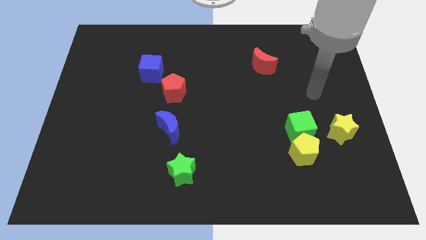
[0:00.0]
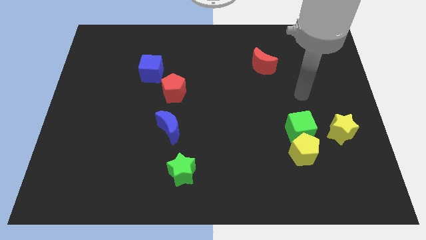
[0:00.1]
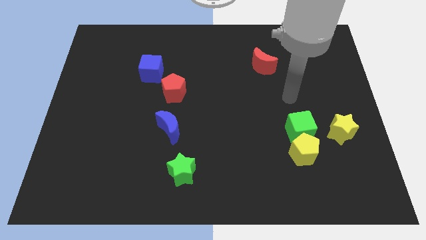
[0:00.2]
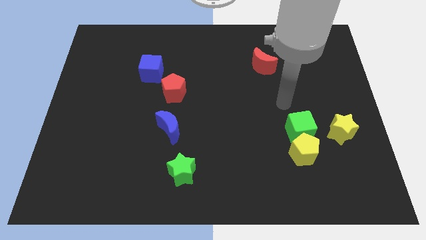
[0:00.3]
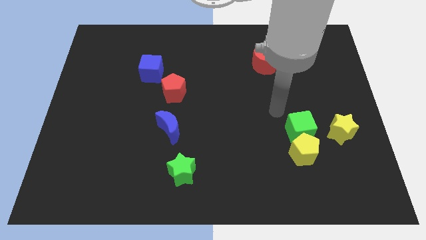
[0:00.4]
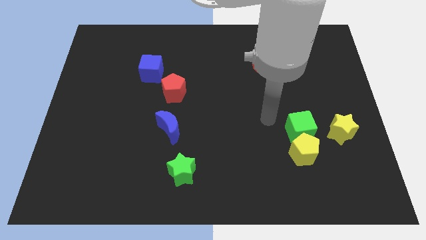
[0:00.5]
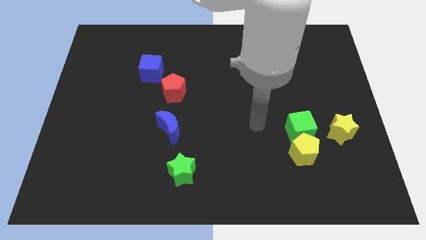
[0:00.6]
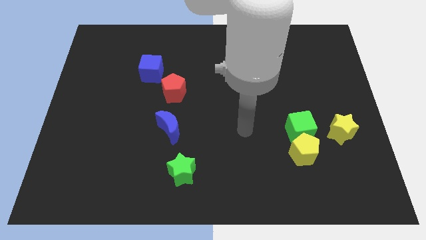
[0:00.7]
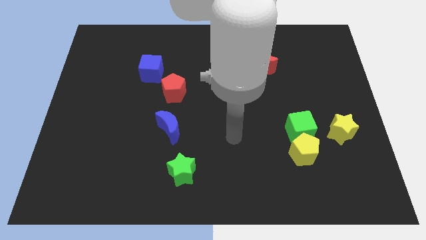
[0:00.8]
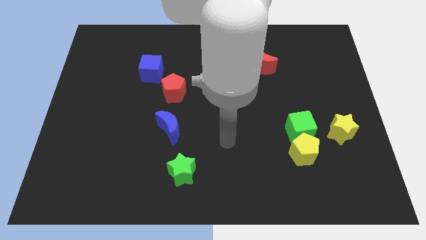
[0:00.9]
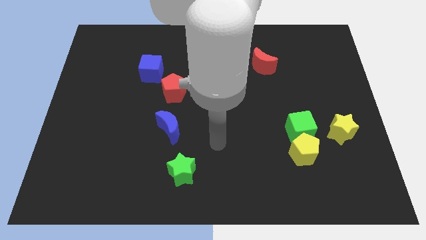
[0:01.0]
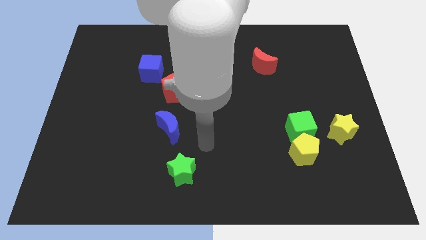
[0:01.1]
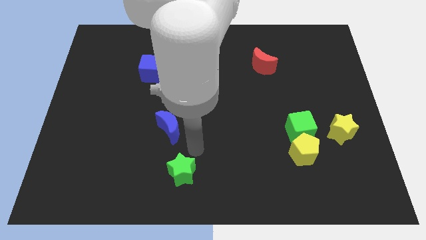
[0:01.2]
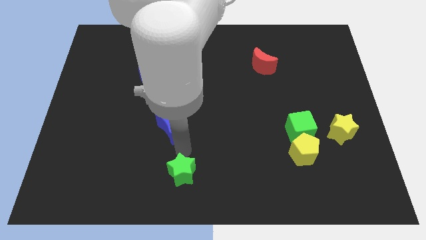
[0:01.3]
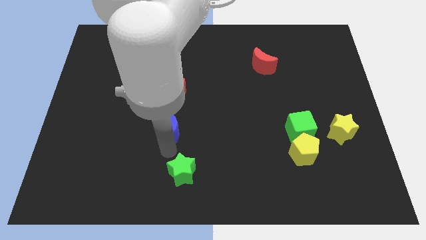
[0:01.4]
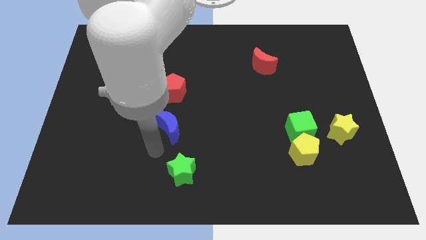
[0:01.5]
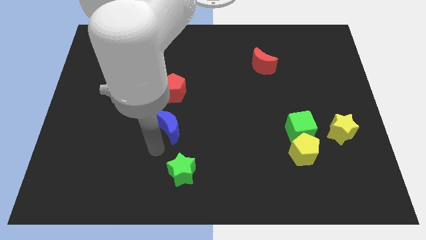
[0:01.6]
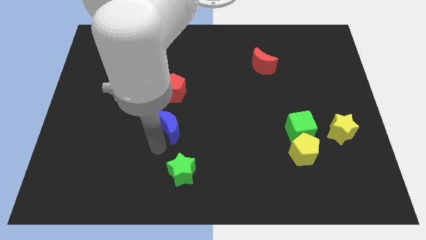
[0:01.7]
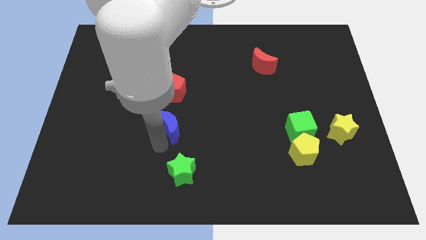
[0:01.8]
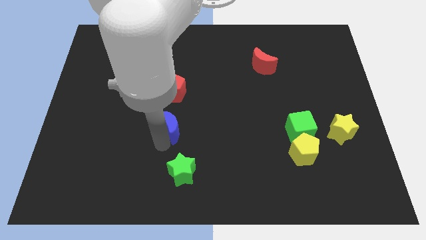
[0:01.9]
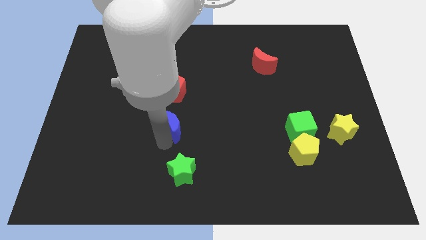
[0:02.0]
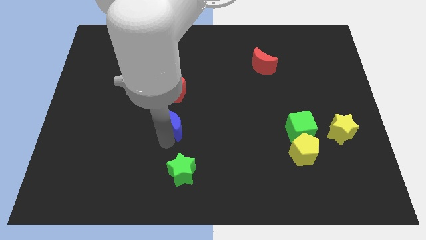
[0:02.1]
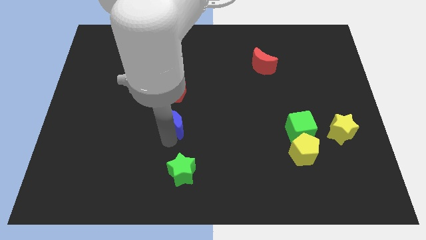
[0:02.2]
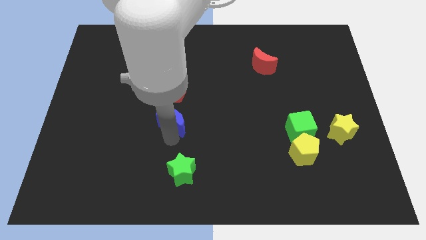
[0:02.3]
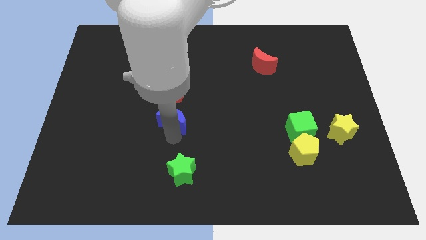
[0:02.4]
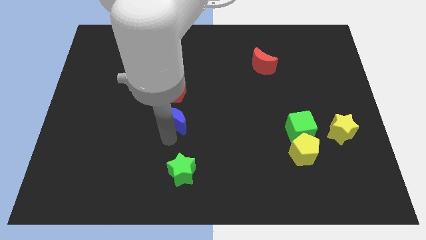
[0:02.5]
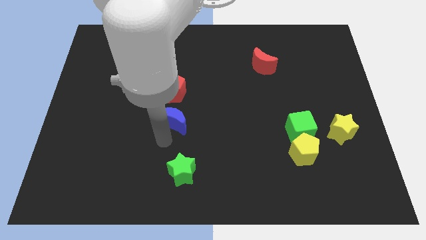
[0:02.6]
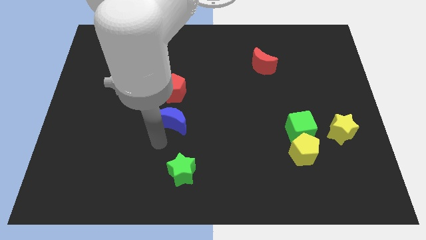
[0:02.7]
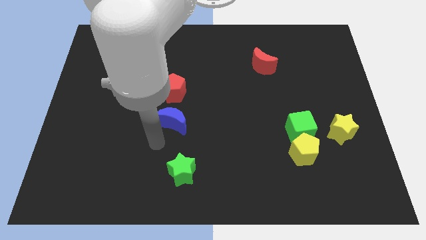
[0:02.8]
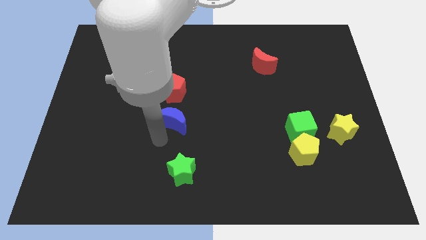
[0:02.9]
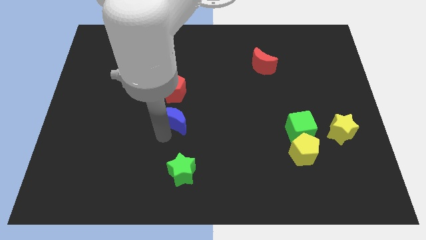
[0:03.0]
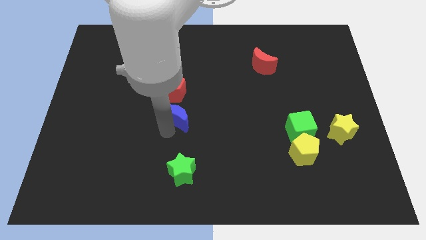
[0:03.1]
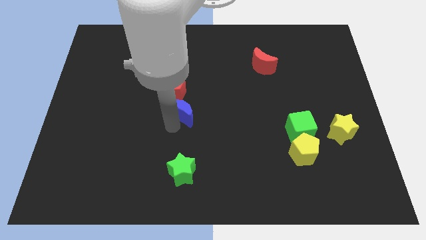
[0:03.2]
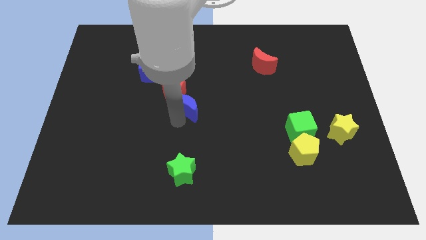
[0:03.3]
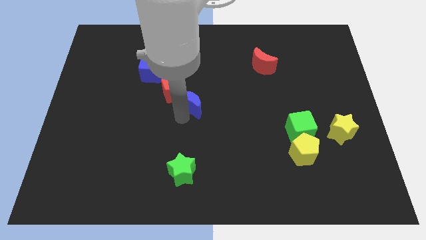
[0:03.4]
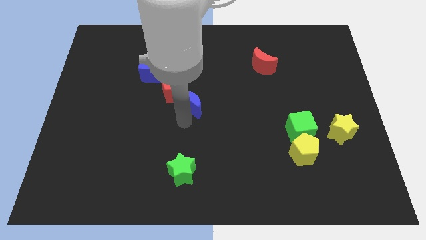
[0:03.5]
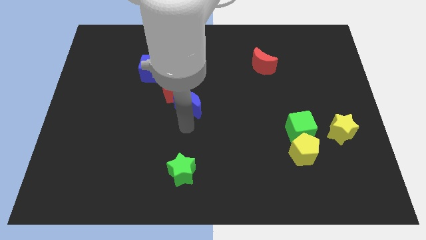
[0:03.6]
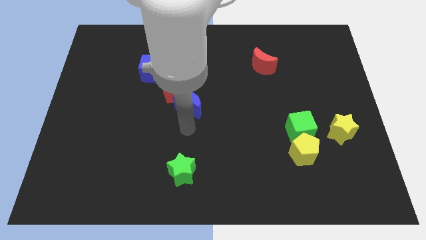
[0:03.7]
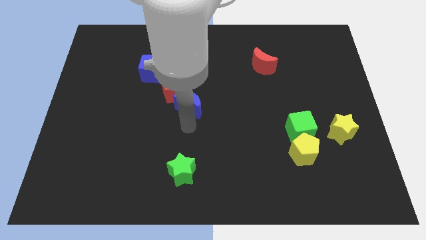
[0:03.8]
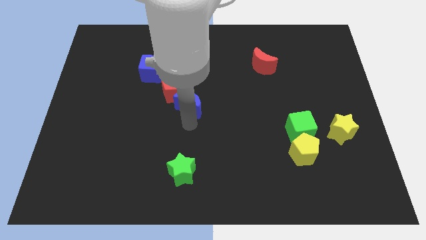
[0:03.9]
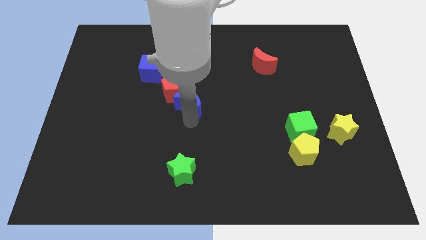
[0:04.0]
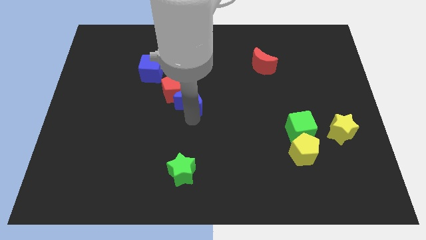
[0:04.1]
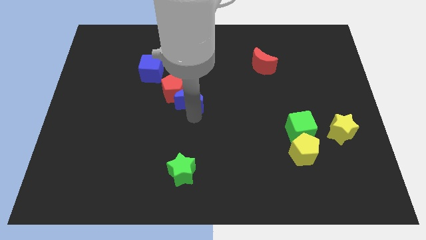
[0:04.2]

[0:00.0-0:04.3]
slide the blue moon upwards somewhat

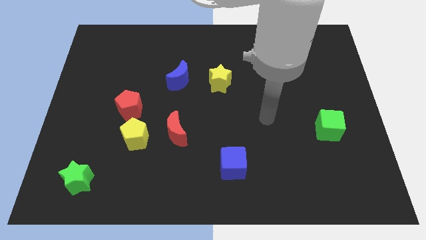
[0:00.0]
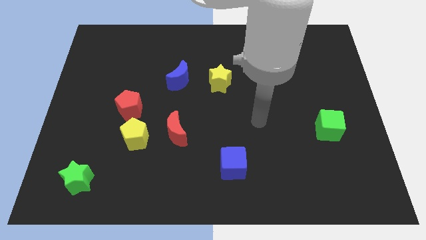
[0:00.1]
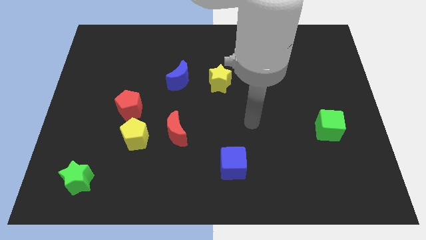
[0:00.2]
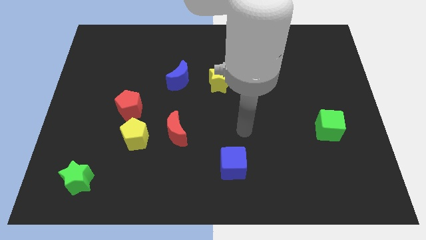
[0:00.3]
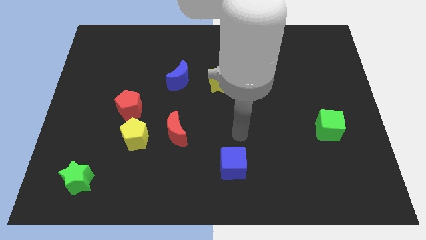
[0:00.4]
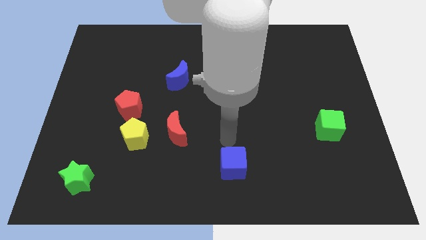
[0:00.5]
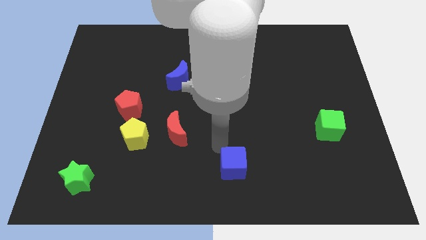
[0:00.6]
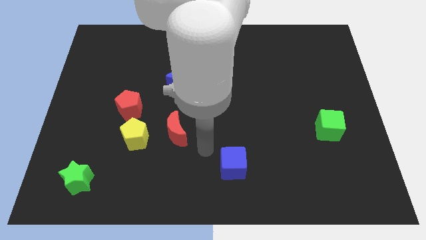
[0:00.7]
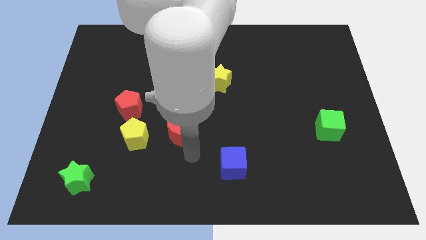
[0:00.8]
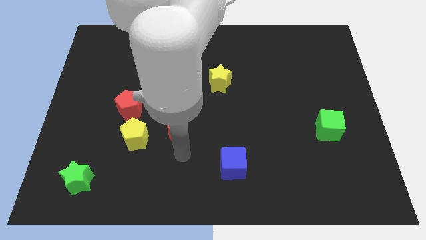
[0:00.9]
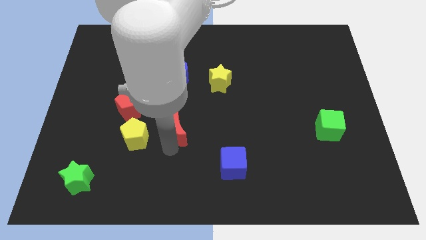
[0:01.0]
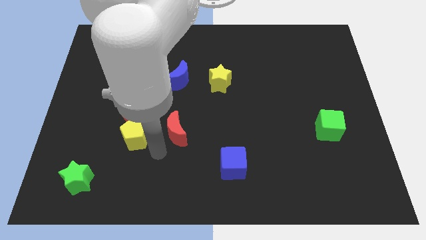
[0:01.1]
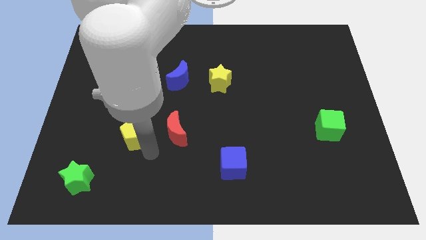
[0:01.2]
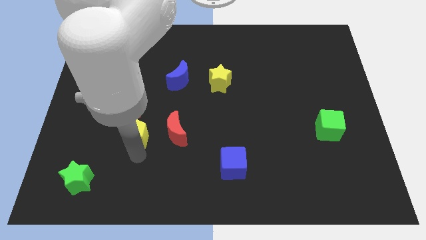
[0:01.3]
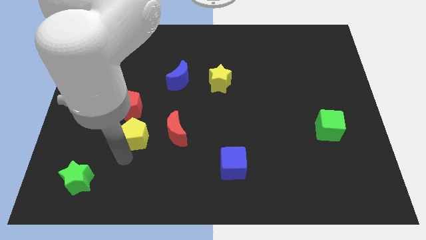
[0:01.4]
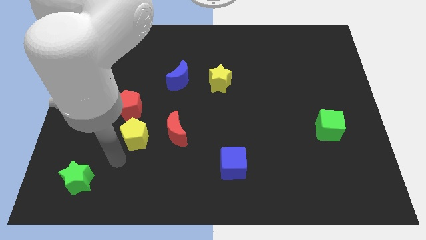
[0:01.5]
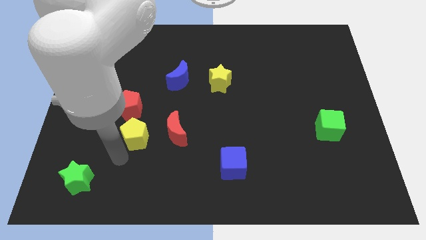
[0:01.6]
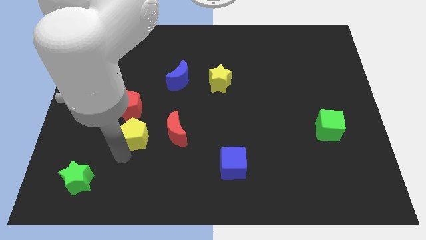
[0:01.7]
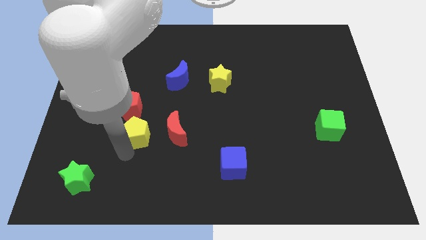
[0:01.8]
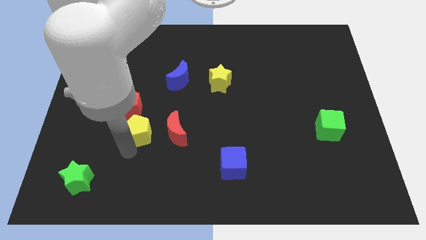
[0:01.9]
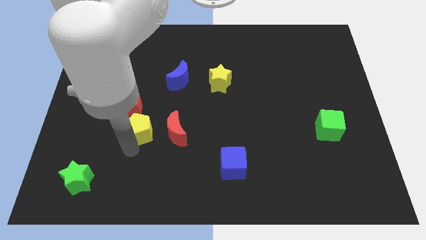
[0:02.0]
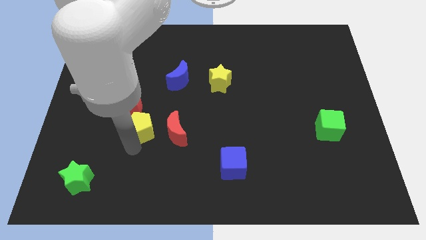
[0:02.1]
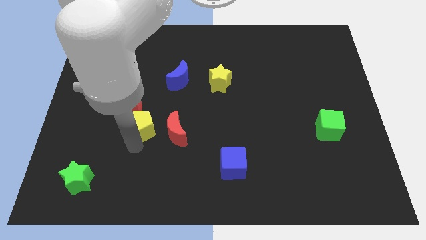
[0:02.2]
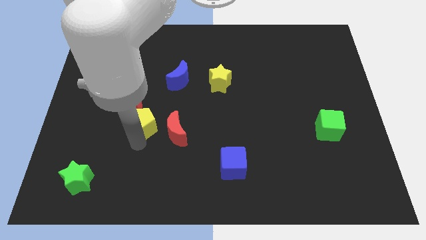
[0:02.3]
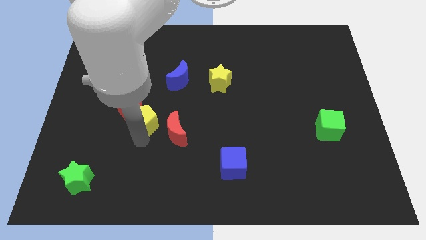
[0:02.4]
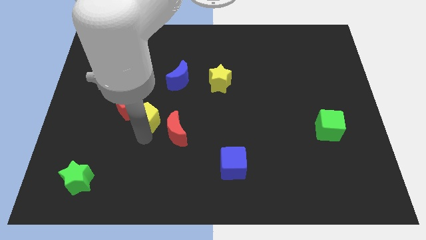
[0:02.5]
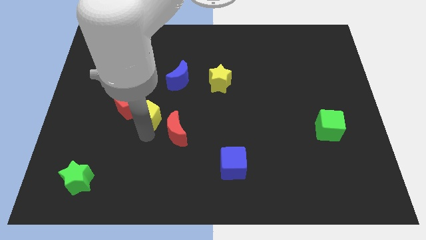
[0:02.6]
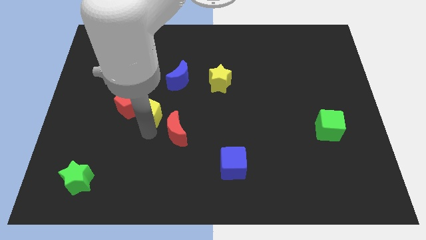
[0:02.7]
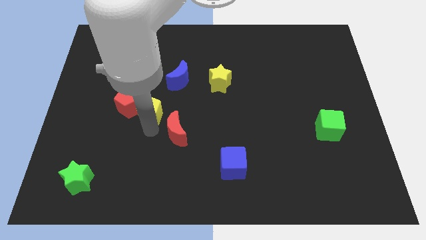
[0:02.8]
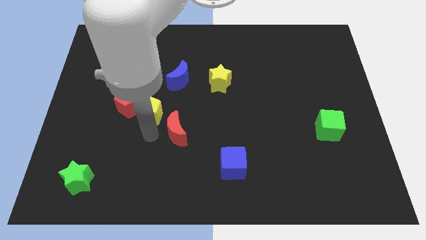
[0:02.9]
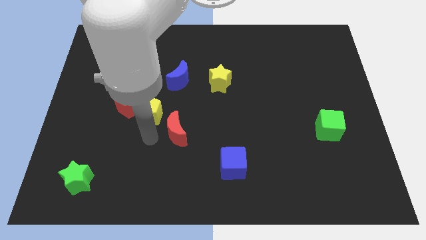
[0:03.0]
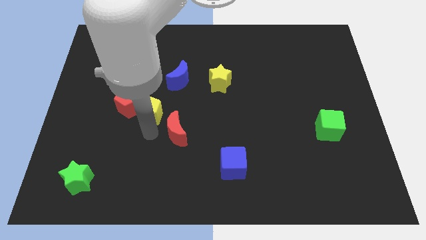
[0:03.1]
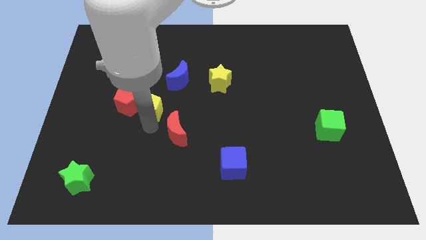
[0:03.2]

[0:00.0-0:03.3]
slightly slide the yellow pentagon up
